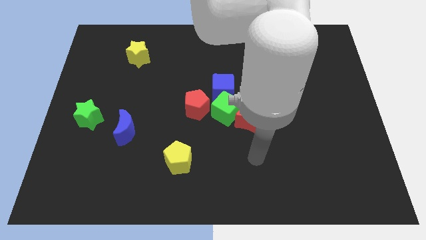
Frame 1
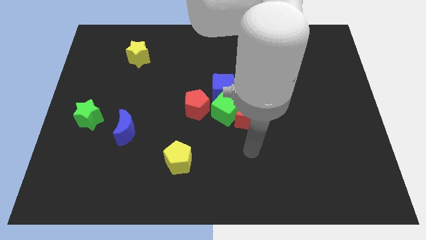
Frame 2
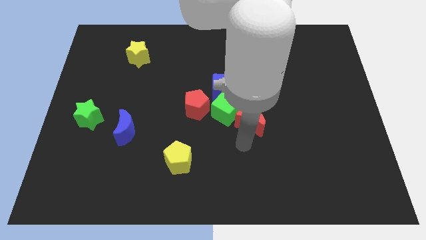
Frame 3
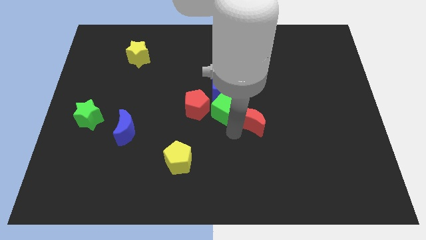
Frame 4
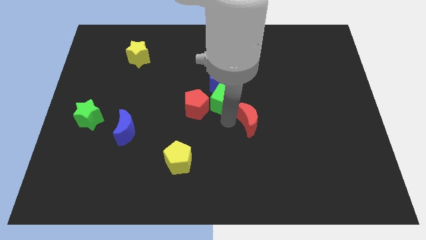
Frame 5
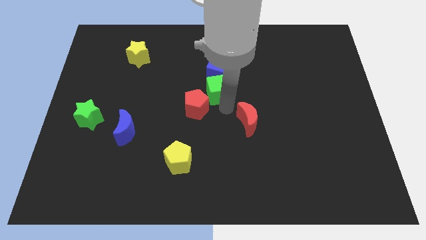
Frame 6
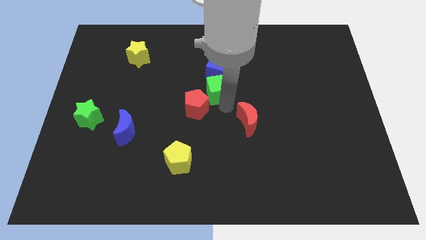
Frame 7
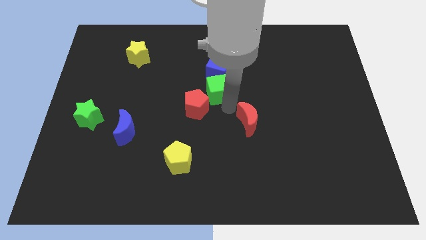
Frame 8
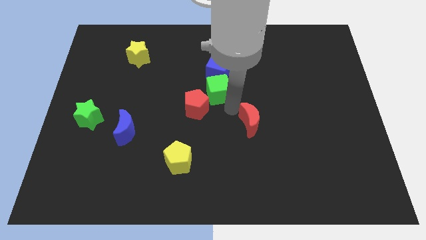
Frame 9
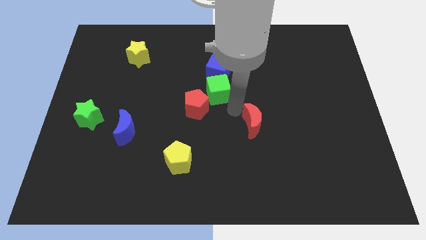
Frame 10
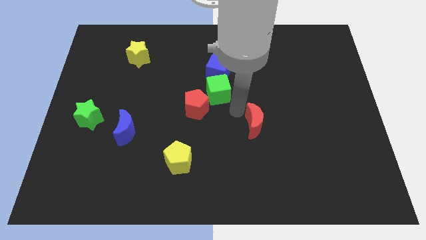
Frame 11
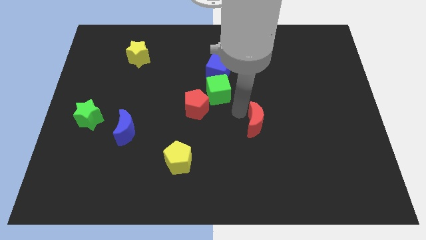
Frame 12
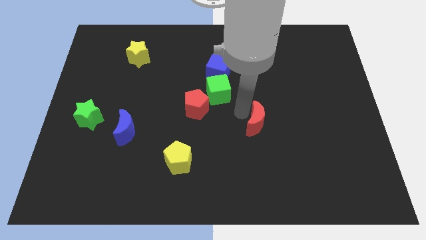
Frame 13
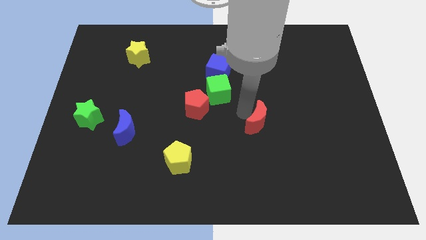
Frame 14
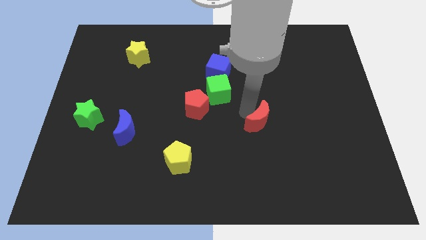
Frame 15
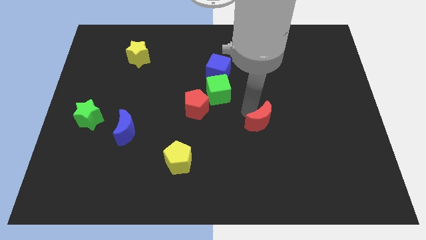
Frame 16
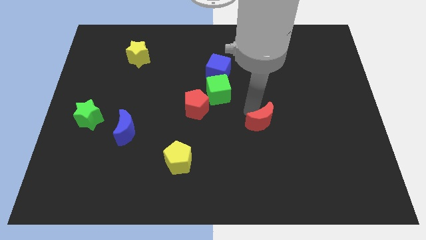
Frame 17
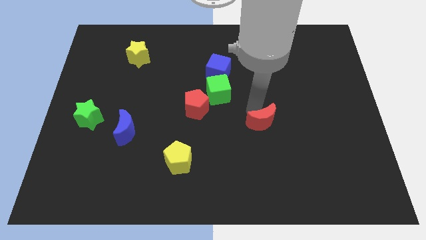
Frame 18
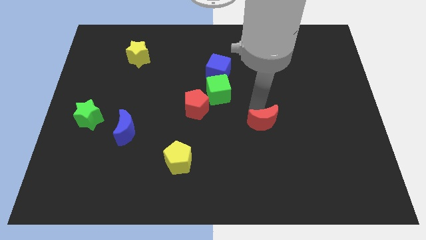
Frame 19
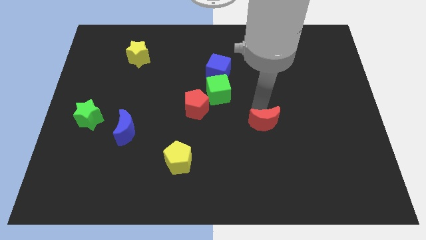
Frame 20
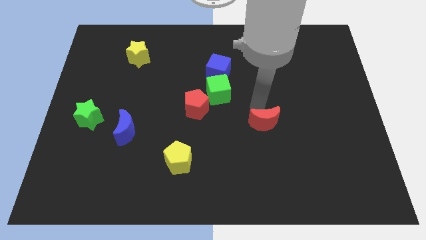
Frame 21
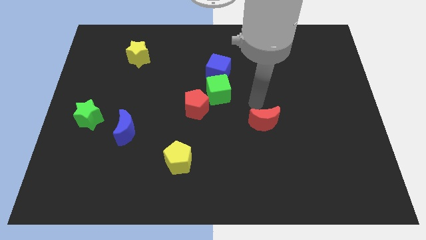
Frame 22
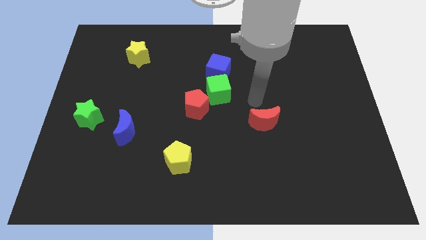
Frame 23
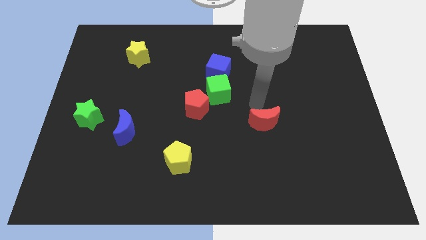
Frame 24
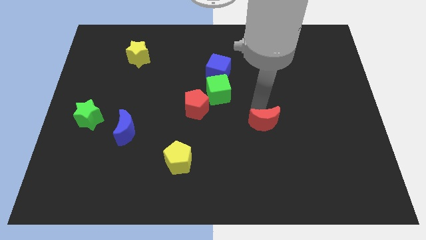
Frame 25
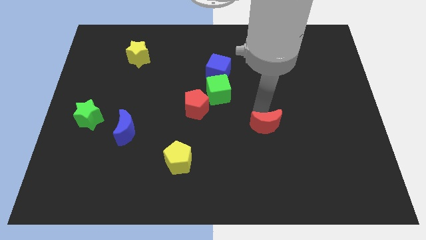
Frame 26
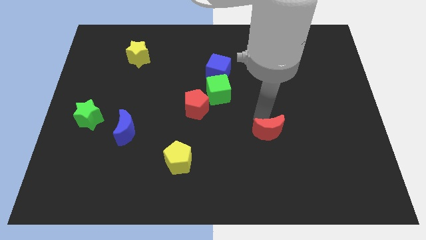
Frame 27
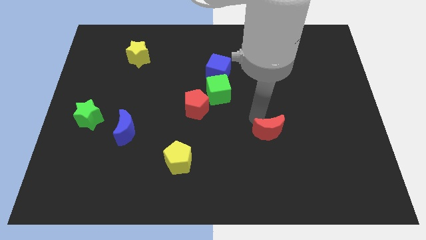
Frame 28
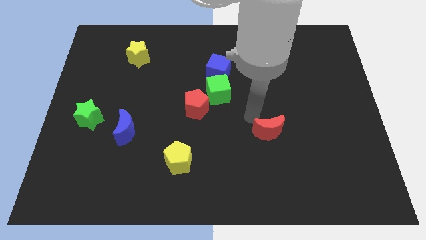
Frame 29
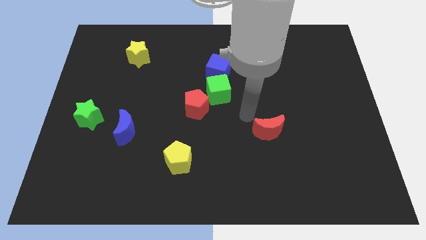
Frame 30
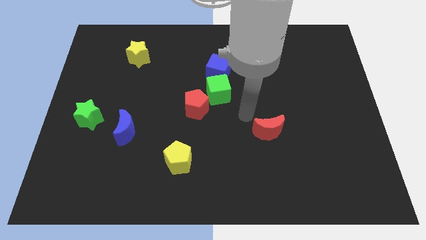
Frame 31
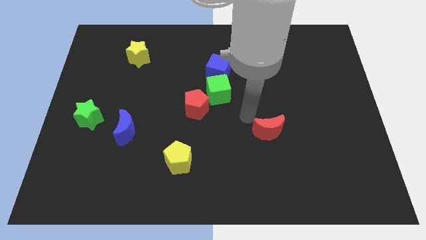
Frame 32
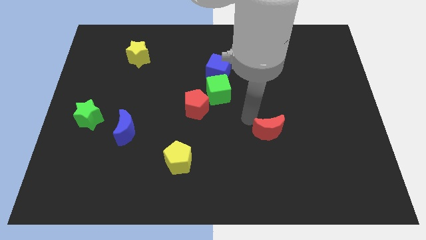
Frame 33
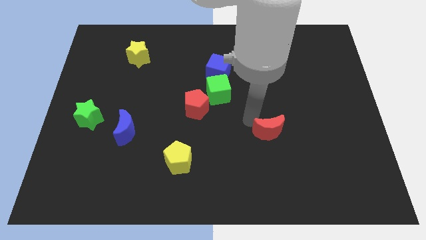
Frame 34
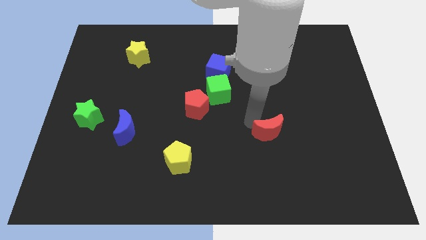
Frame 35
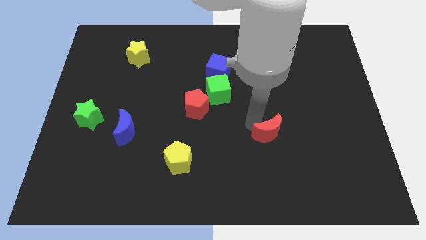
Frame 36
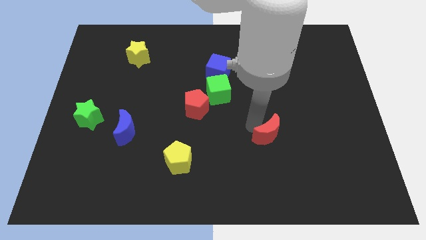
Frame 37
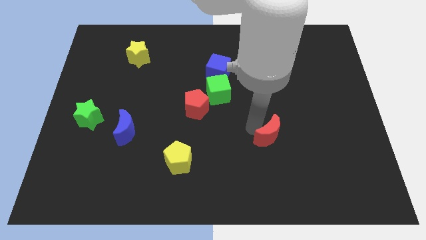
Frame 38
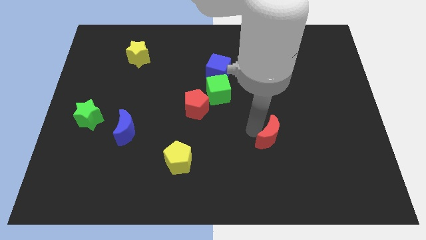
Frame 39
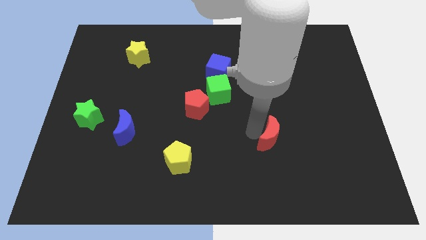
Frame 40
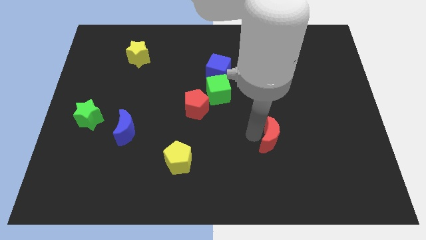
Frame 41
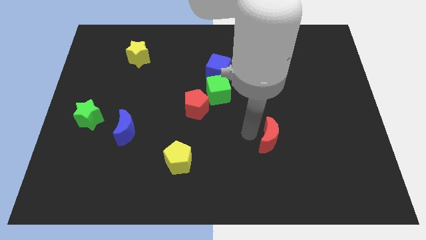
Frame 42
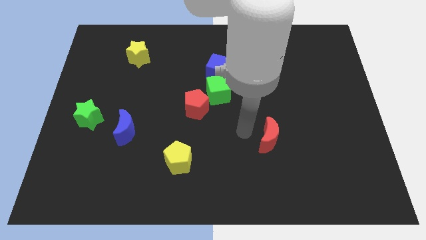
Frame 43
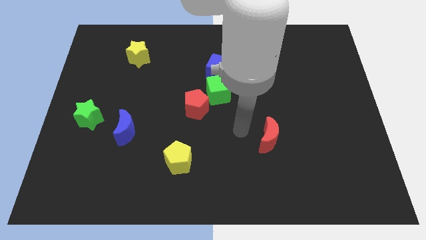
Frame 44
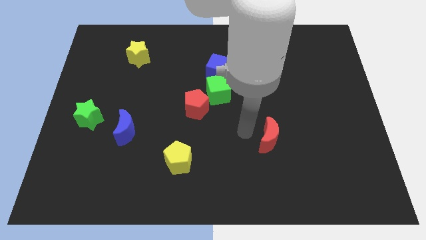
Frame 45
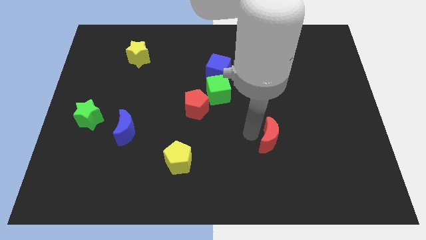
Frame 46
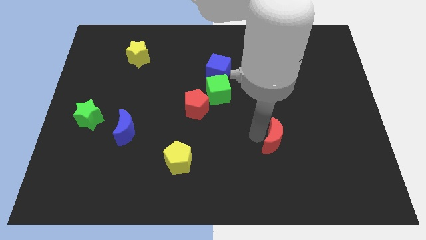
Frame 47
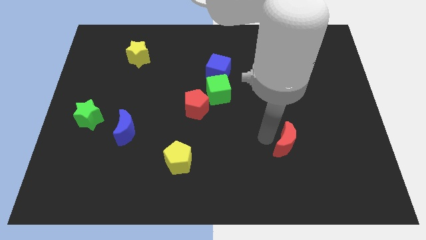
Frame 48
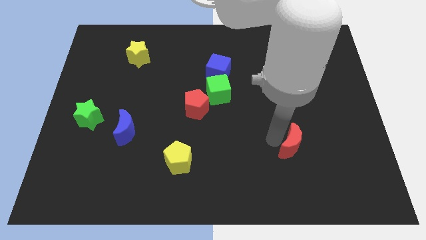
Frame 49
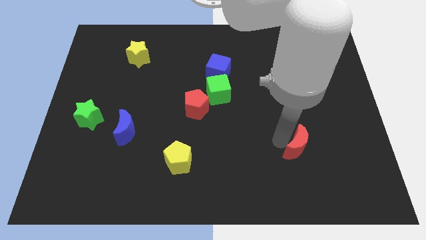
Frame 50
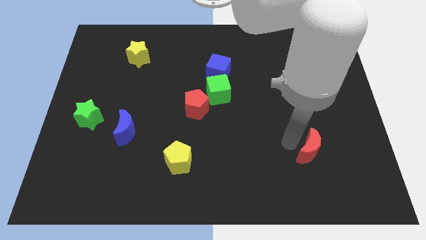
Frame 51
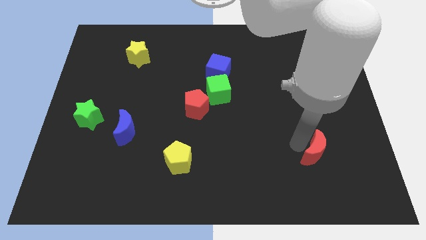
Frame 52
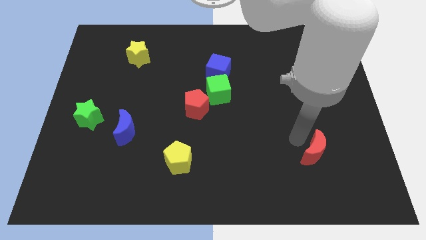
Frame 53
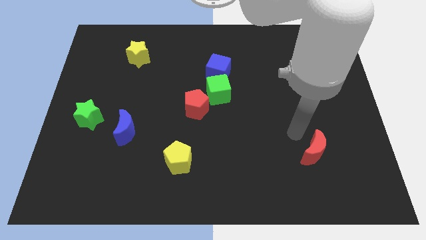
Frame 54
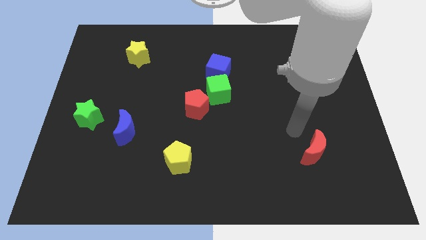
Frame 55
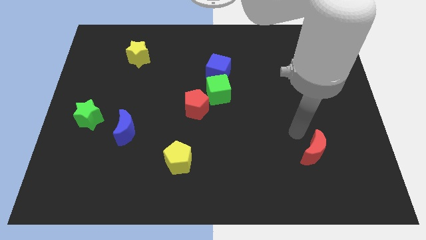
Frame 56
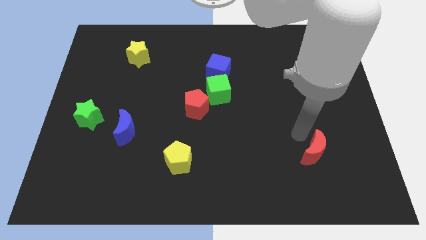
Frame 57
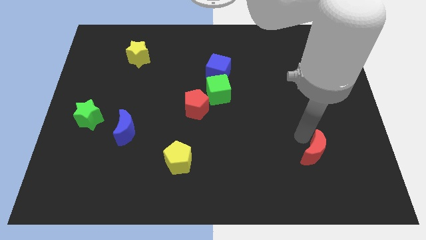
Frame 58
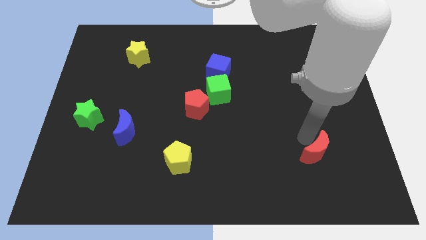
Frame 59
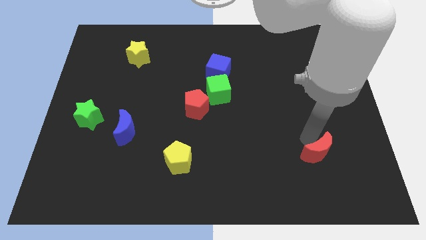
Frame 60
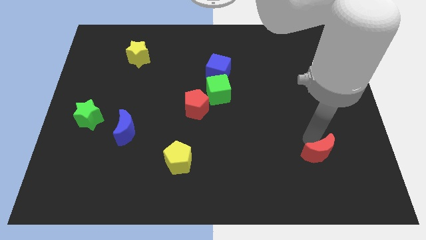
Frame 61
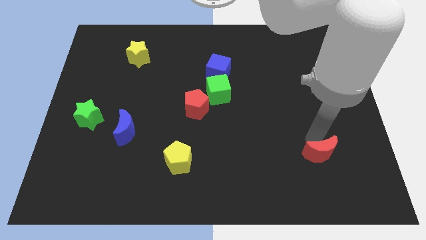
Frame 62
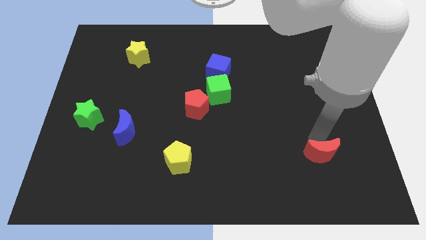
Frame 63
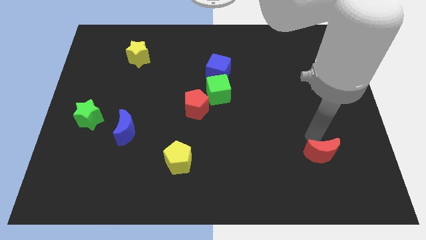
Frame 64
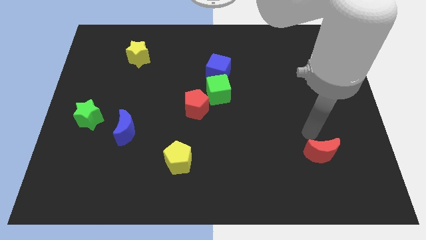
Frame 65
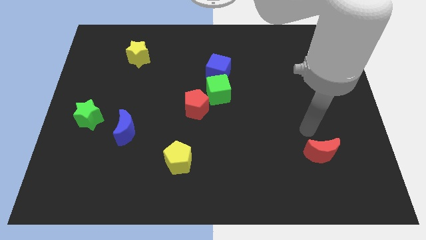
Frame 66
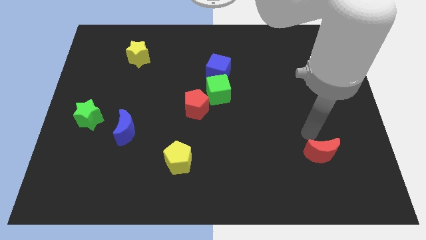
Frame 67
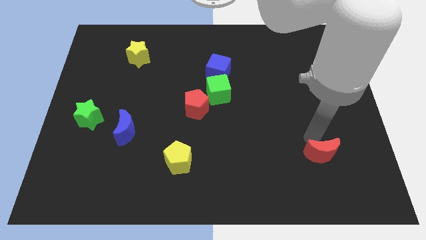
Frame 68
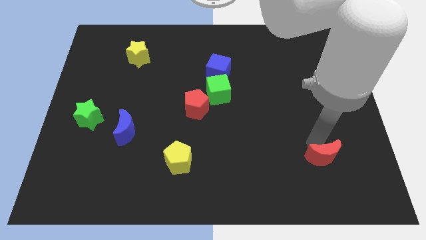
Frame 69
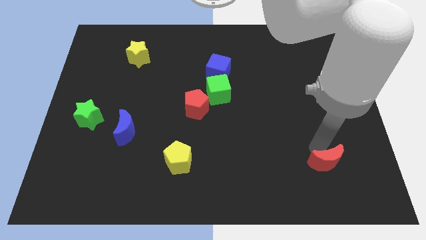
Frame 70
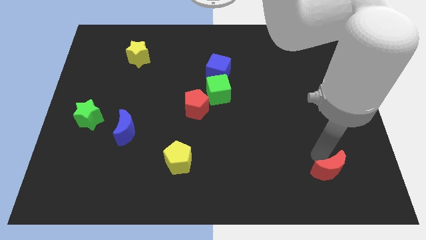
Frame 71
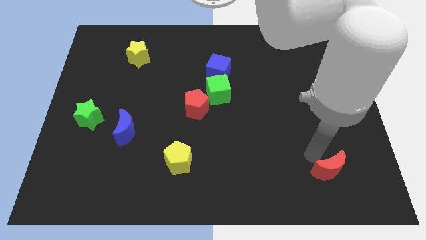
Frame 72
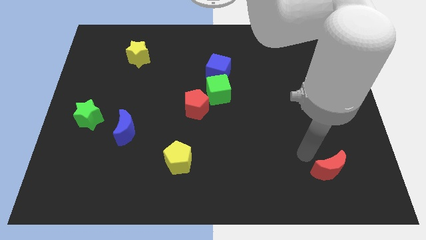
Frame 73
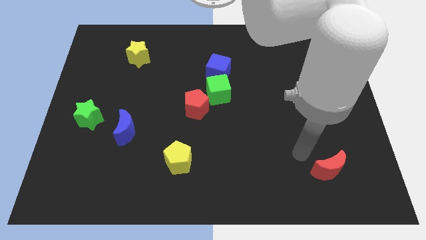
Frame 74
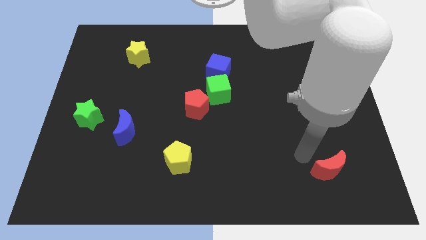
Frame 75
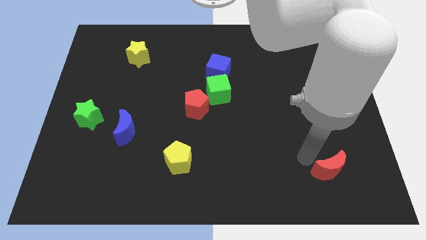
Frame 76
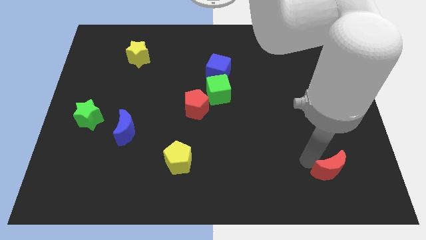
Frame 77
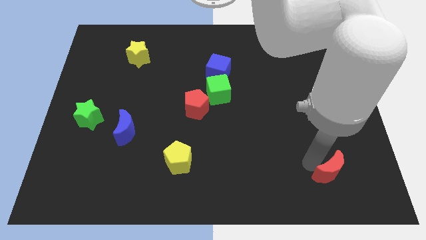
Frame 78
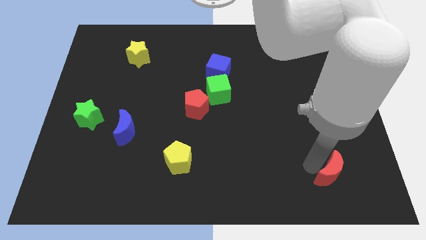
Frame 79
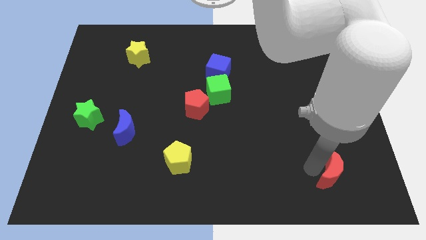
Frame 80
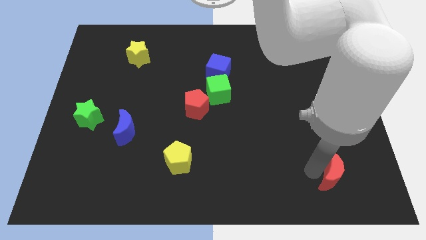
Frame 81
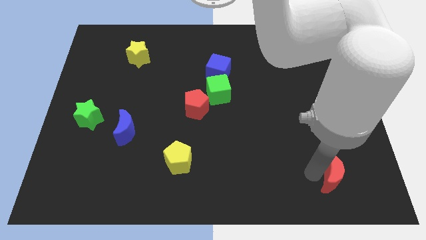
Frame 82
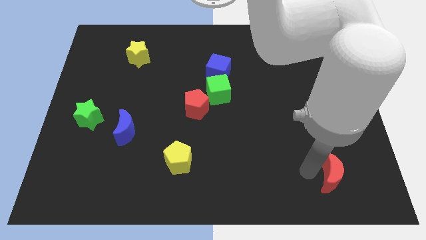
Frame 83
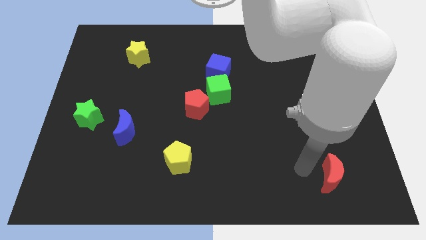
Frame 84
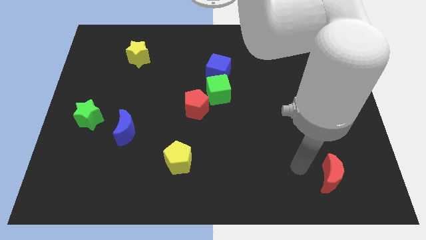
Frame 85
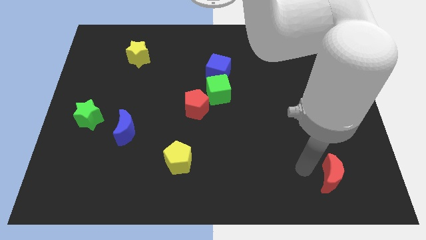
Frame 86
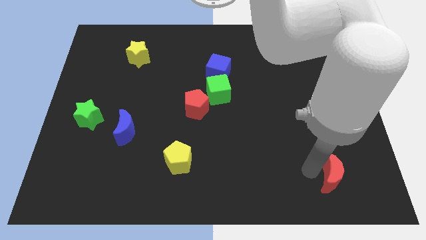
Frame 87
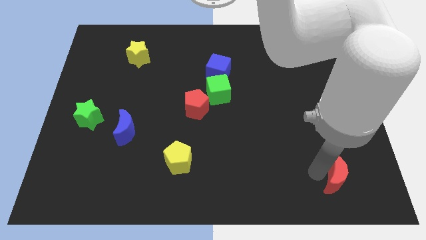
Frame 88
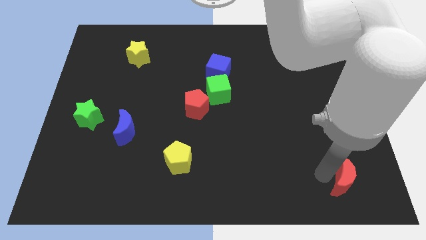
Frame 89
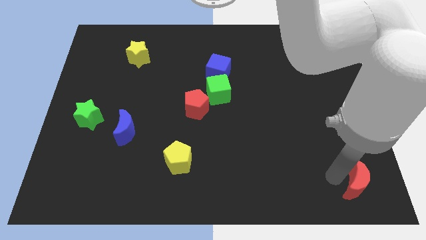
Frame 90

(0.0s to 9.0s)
put the red moon to the bottom right corner
